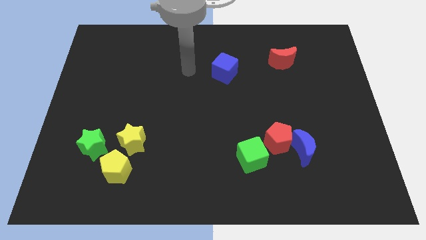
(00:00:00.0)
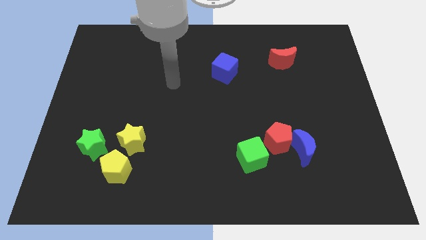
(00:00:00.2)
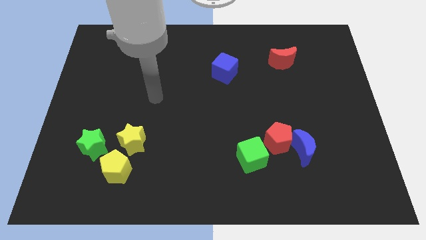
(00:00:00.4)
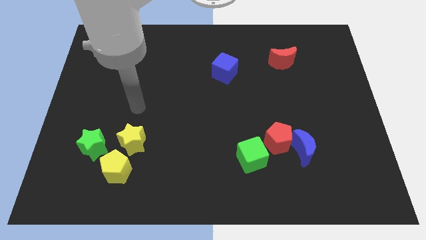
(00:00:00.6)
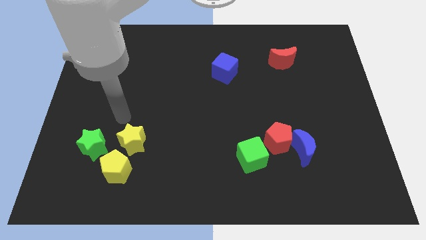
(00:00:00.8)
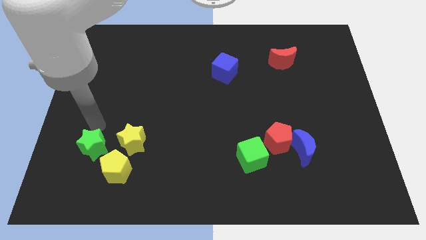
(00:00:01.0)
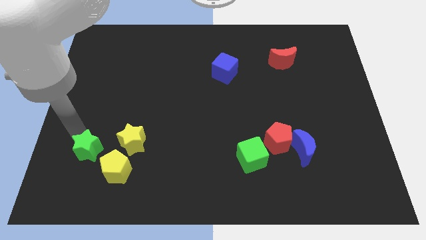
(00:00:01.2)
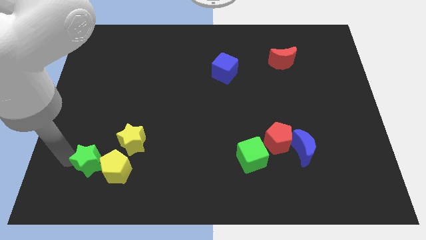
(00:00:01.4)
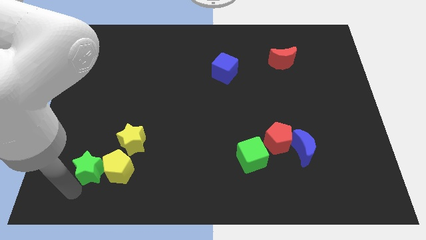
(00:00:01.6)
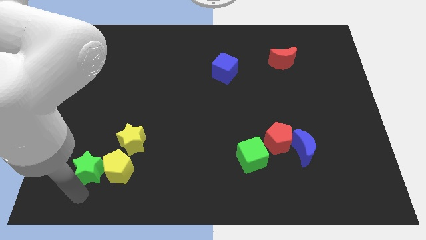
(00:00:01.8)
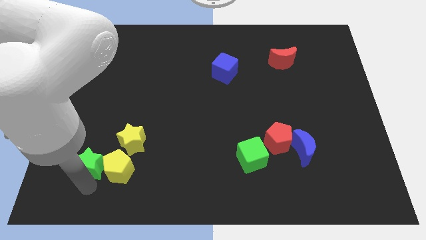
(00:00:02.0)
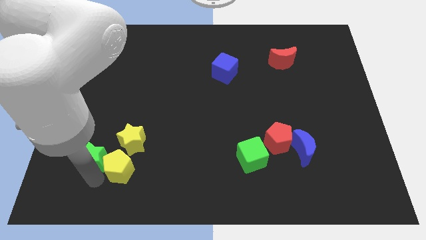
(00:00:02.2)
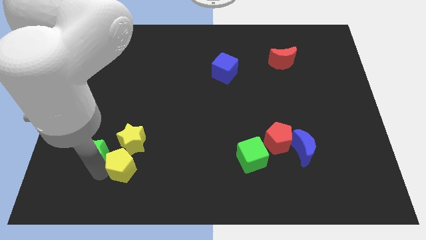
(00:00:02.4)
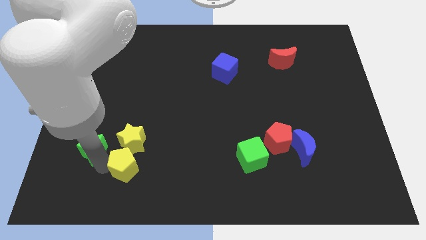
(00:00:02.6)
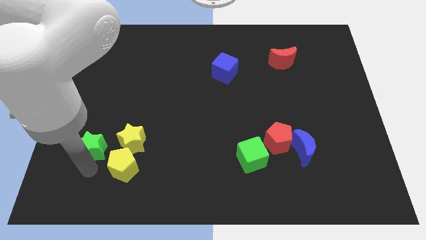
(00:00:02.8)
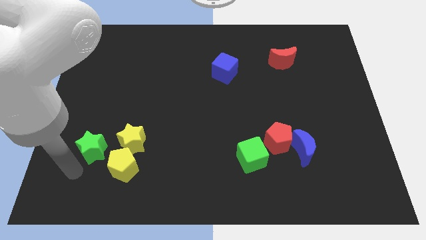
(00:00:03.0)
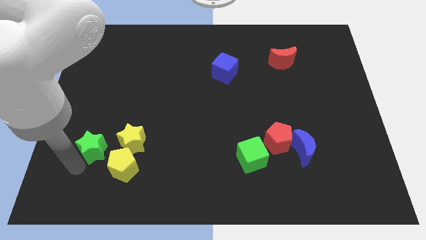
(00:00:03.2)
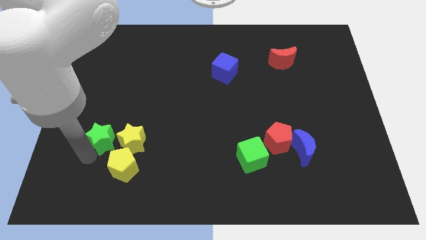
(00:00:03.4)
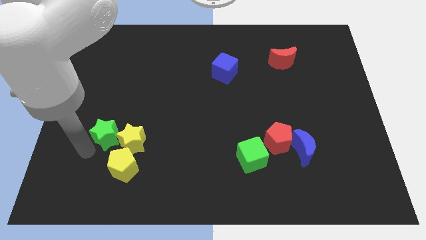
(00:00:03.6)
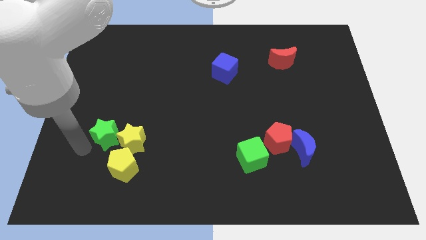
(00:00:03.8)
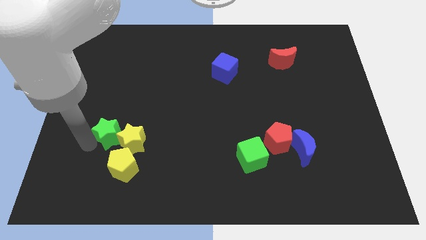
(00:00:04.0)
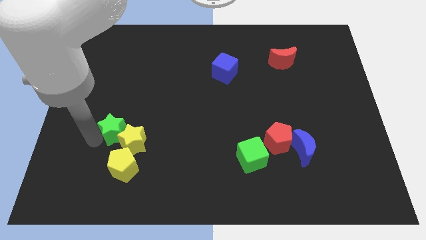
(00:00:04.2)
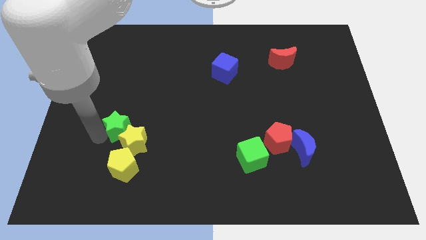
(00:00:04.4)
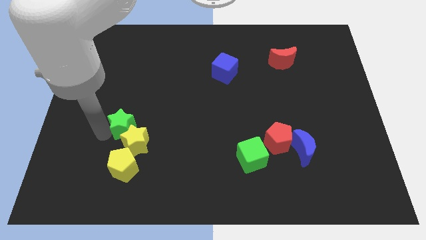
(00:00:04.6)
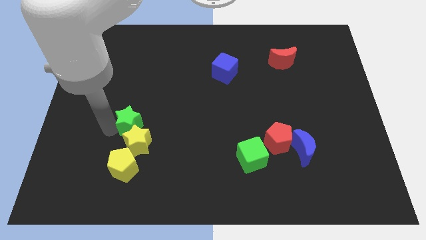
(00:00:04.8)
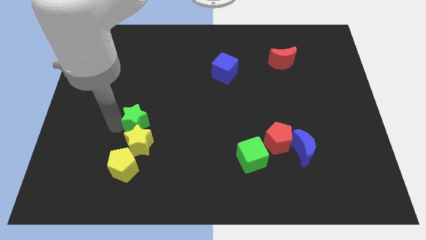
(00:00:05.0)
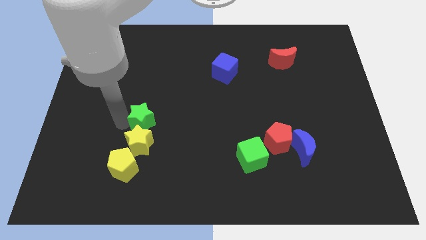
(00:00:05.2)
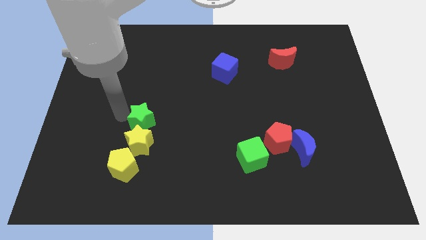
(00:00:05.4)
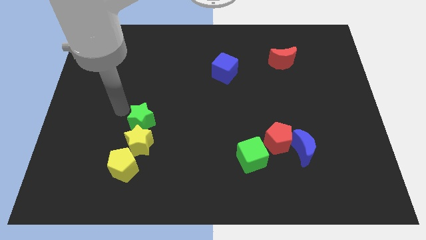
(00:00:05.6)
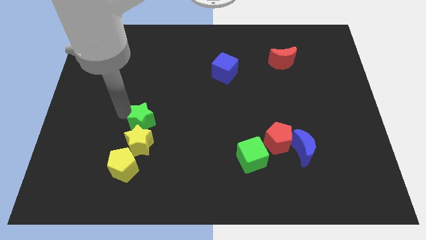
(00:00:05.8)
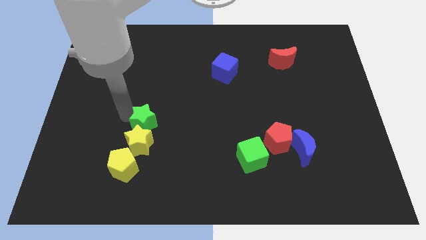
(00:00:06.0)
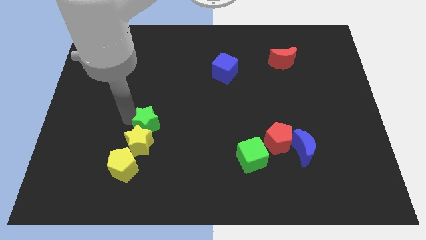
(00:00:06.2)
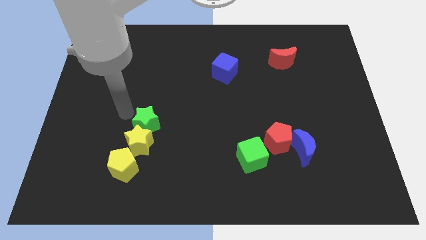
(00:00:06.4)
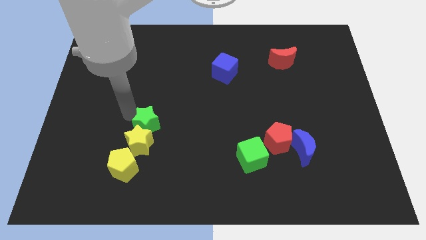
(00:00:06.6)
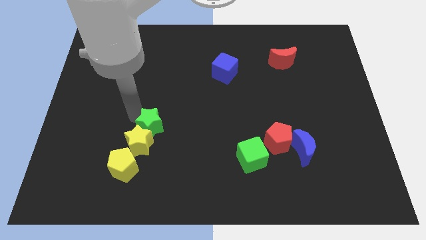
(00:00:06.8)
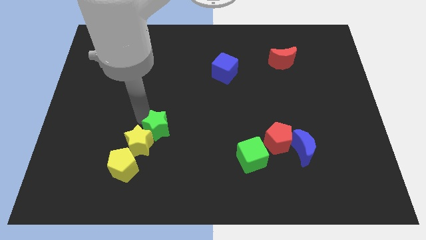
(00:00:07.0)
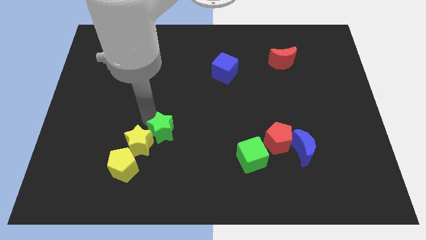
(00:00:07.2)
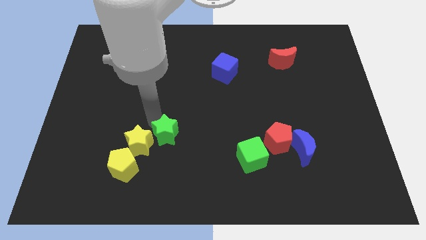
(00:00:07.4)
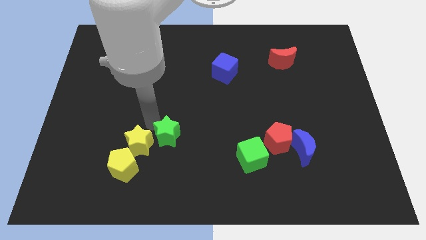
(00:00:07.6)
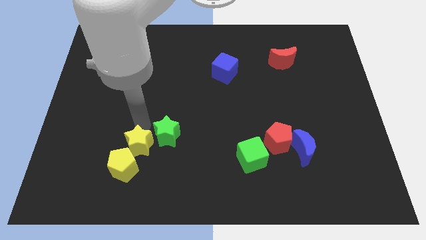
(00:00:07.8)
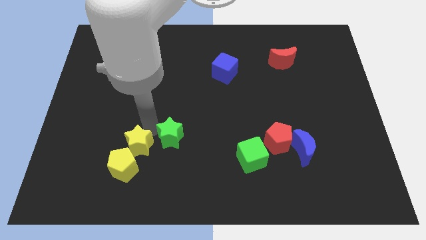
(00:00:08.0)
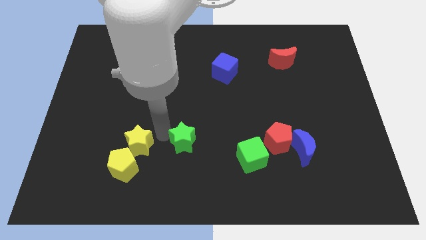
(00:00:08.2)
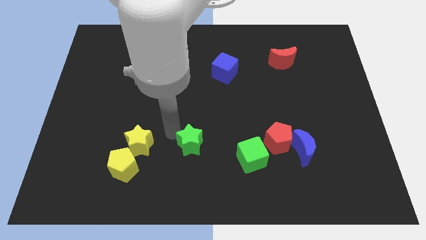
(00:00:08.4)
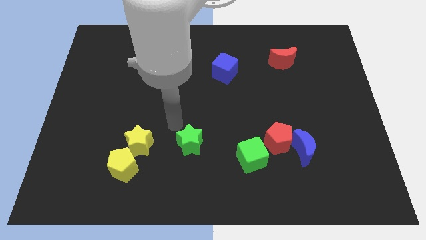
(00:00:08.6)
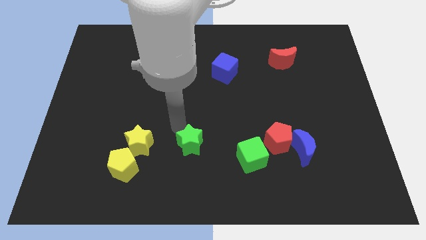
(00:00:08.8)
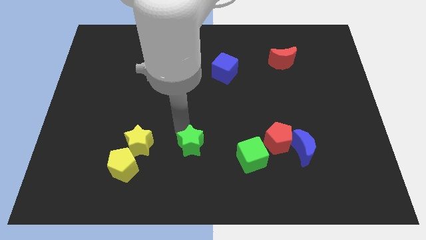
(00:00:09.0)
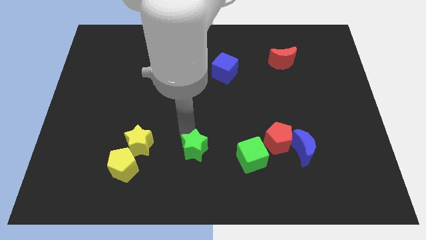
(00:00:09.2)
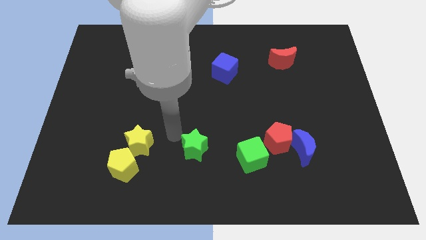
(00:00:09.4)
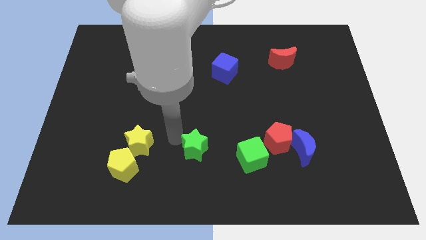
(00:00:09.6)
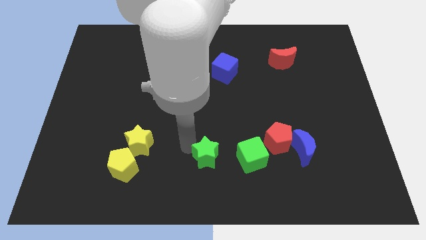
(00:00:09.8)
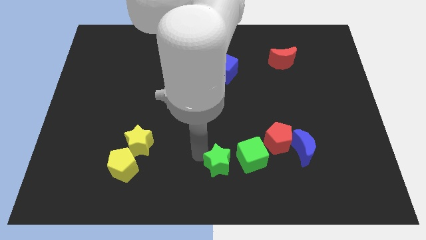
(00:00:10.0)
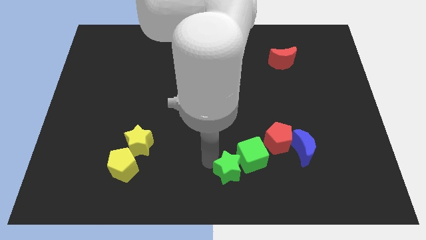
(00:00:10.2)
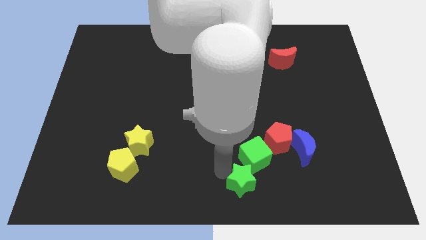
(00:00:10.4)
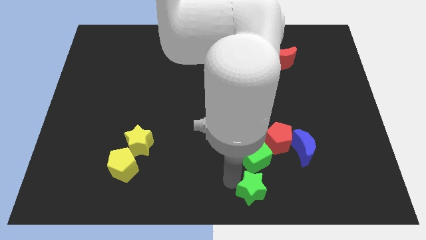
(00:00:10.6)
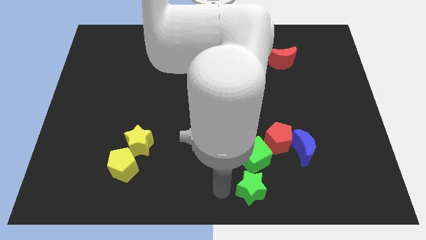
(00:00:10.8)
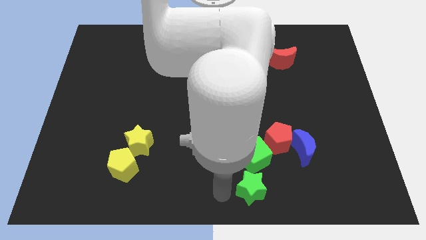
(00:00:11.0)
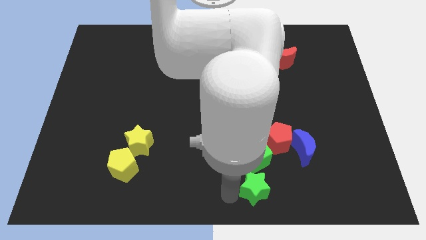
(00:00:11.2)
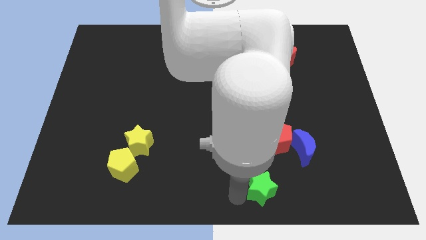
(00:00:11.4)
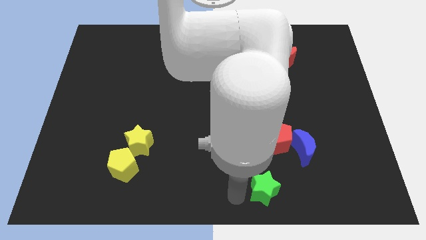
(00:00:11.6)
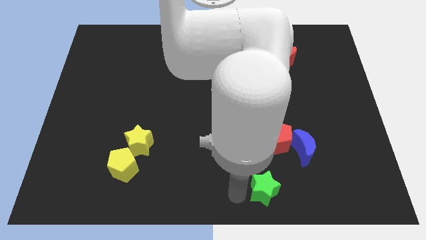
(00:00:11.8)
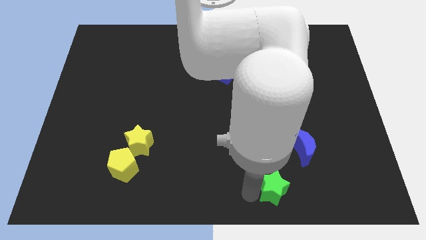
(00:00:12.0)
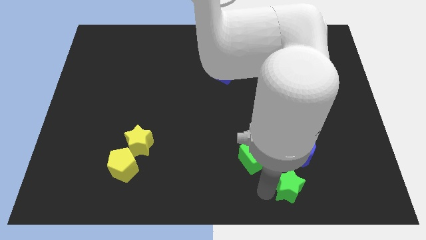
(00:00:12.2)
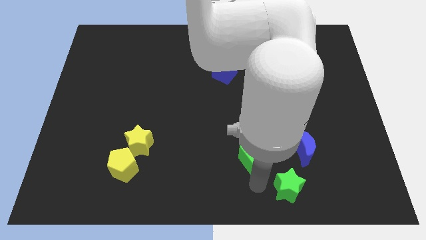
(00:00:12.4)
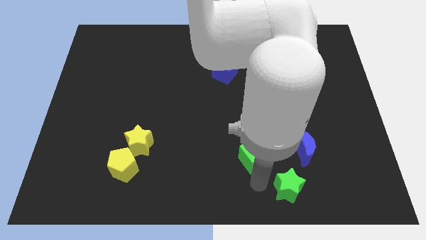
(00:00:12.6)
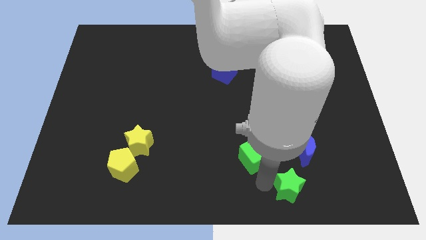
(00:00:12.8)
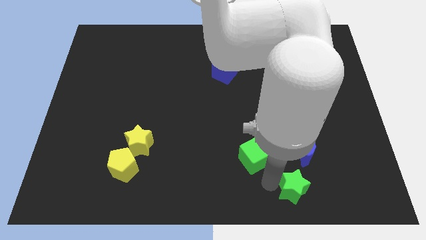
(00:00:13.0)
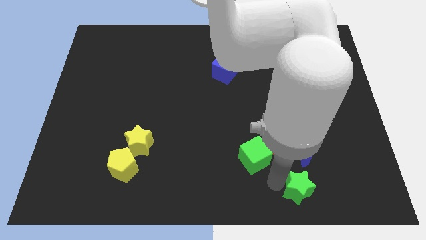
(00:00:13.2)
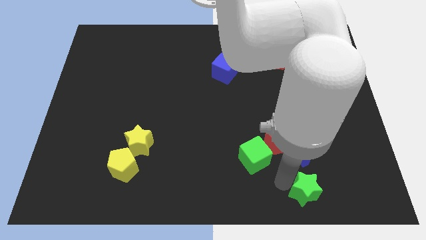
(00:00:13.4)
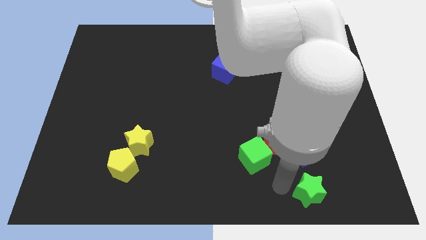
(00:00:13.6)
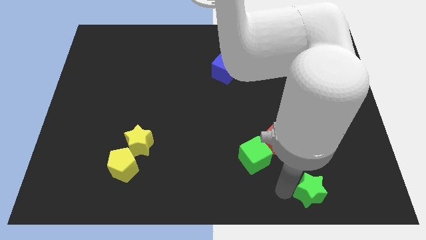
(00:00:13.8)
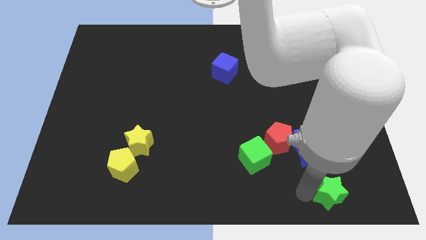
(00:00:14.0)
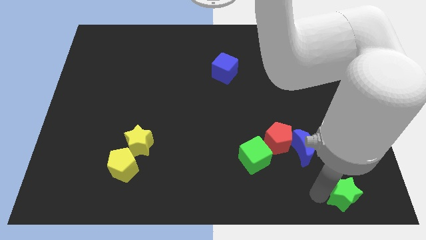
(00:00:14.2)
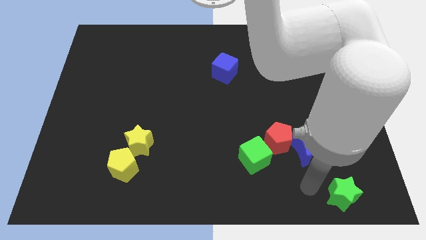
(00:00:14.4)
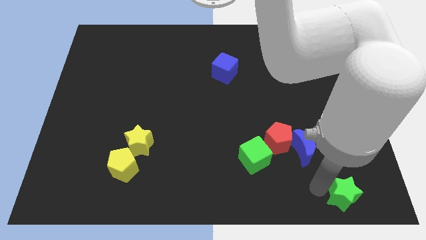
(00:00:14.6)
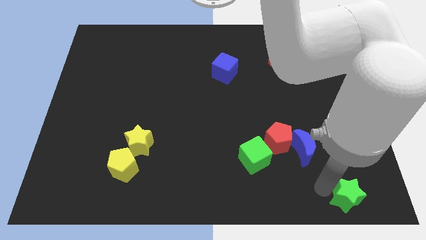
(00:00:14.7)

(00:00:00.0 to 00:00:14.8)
push the green star to the bottom right
